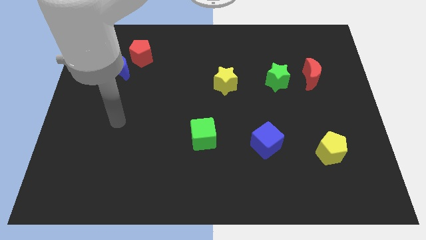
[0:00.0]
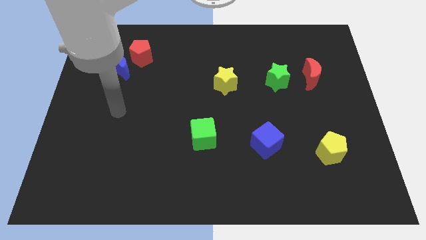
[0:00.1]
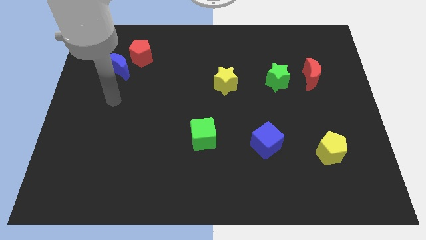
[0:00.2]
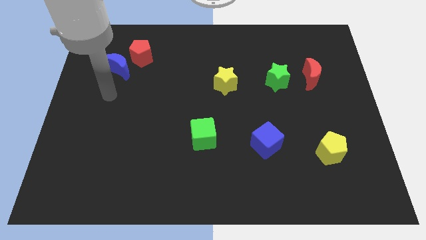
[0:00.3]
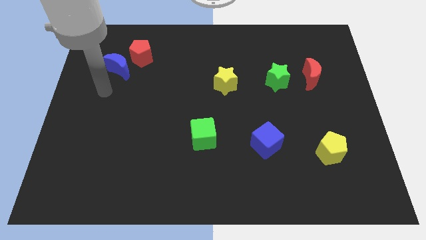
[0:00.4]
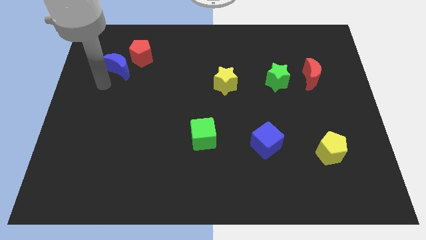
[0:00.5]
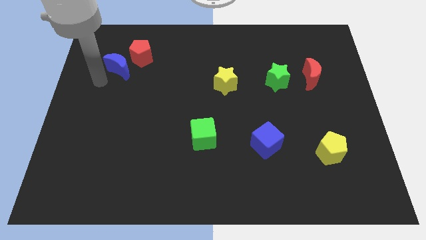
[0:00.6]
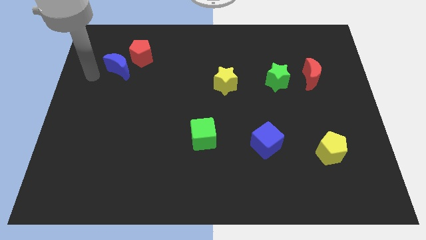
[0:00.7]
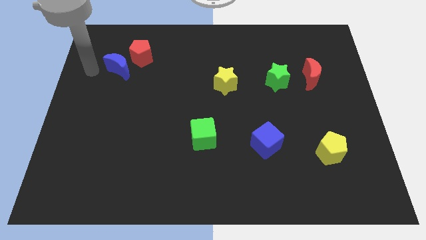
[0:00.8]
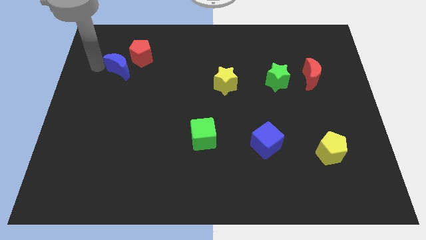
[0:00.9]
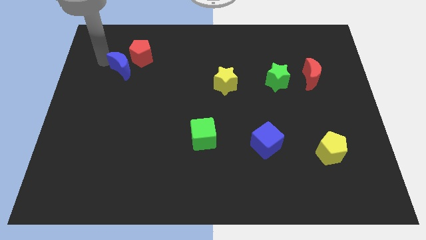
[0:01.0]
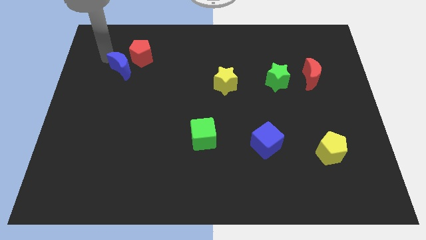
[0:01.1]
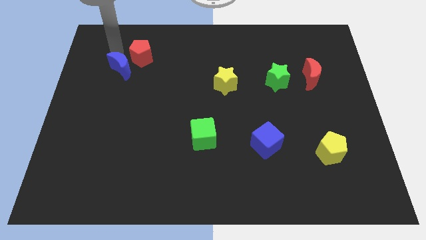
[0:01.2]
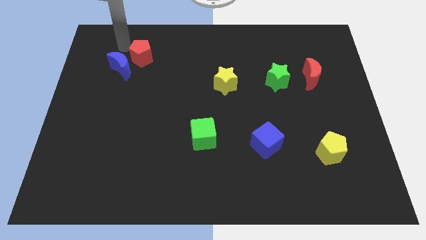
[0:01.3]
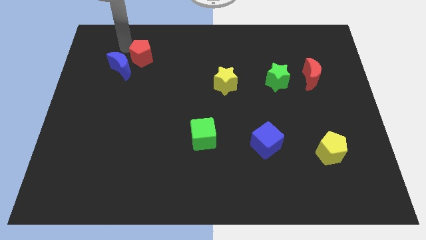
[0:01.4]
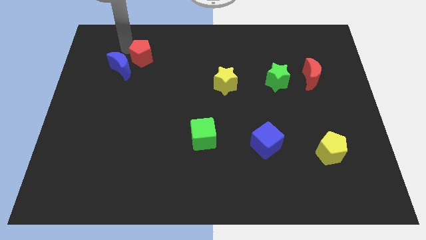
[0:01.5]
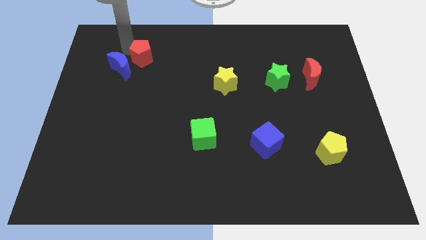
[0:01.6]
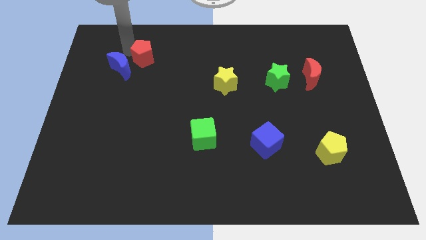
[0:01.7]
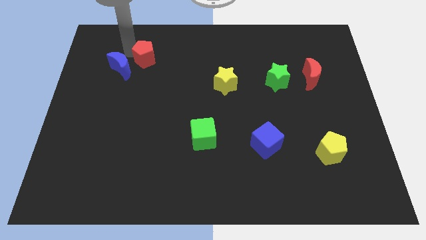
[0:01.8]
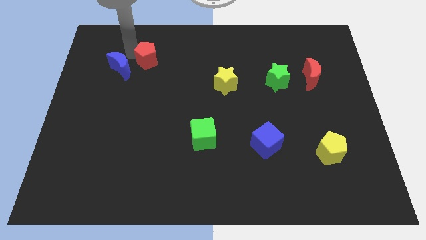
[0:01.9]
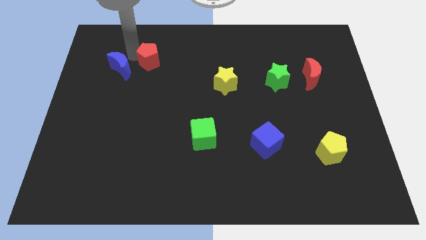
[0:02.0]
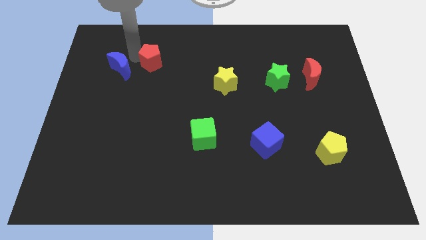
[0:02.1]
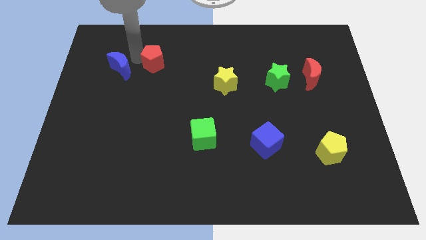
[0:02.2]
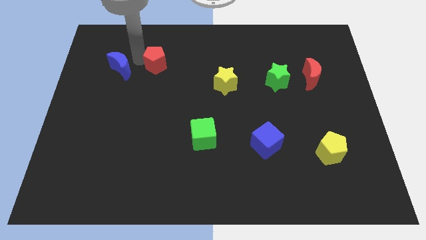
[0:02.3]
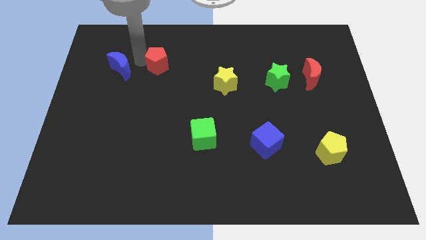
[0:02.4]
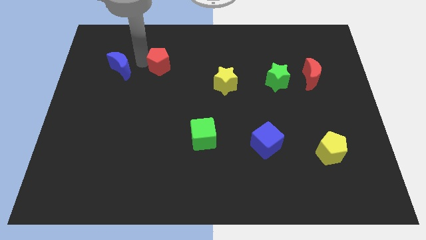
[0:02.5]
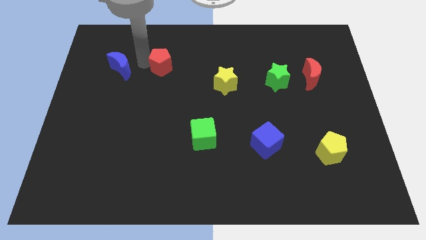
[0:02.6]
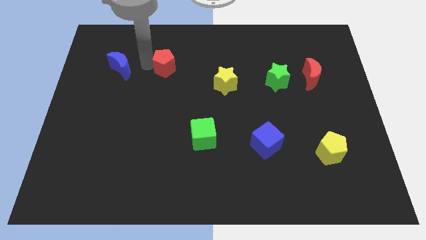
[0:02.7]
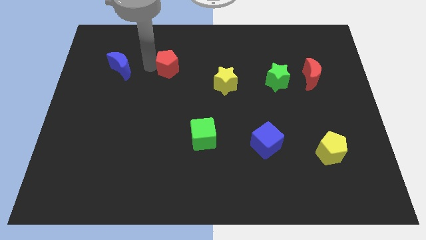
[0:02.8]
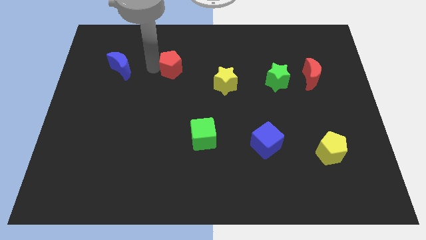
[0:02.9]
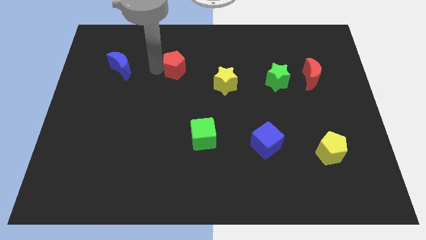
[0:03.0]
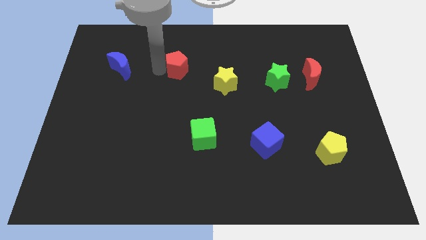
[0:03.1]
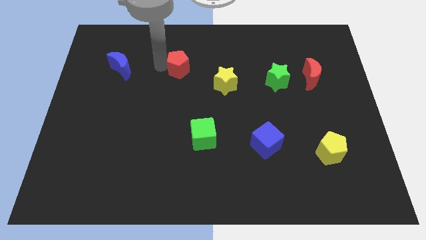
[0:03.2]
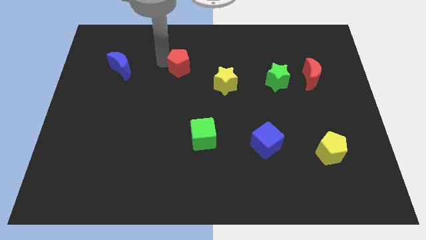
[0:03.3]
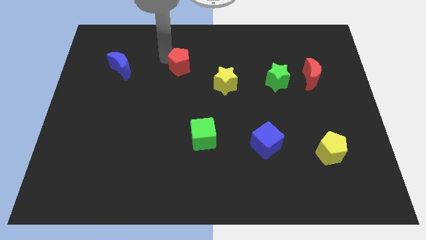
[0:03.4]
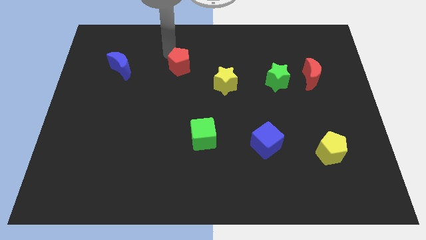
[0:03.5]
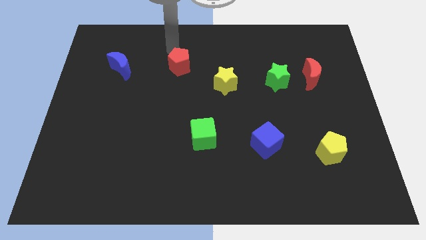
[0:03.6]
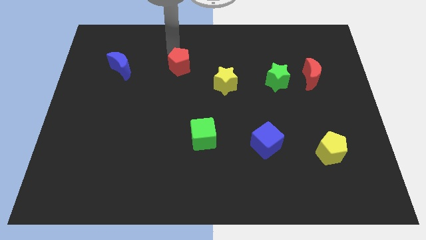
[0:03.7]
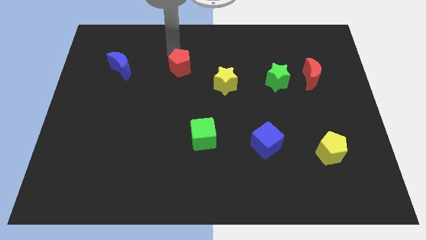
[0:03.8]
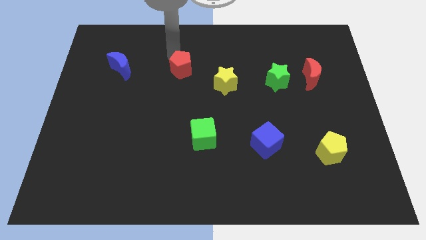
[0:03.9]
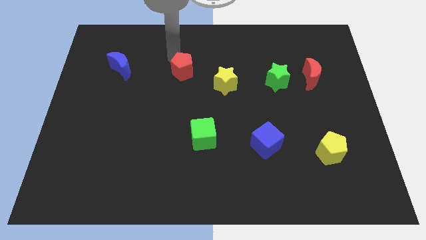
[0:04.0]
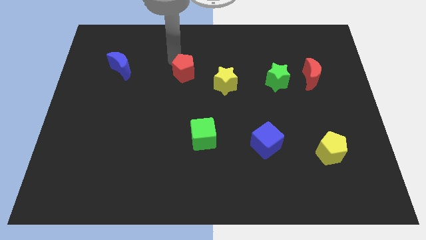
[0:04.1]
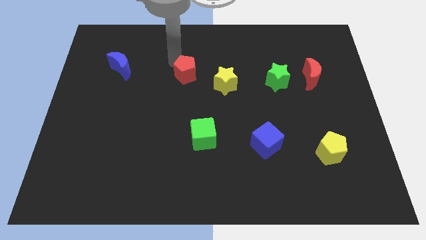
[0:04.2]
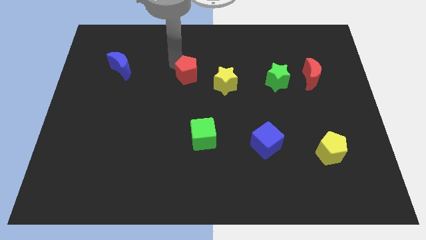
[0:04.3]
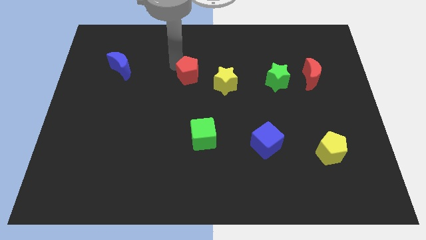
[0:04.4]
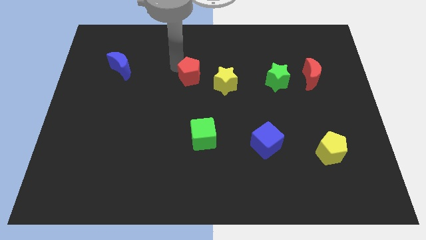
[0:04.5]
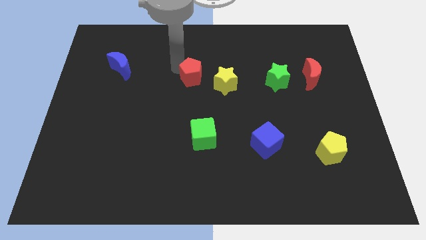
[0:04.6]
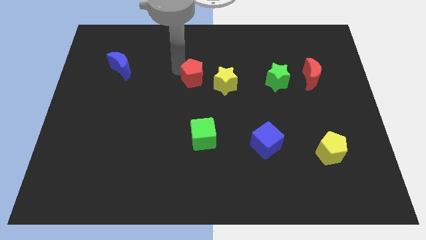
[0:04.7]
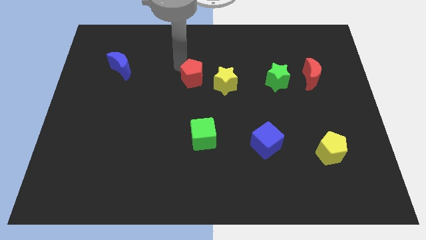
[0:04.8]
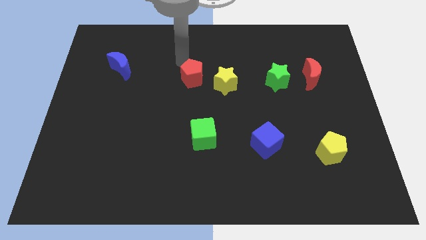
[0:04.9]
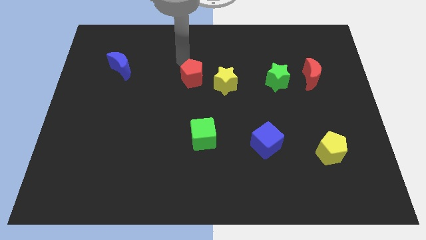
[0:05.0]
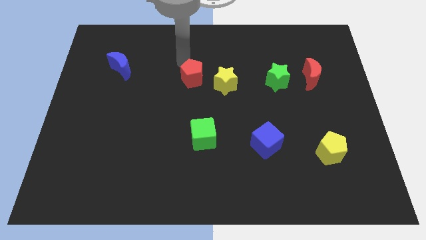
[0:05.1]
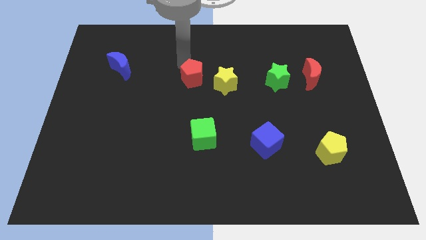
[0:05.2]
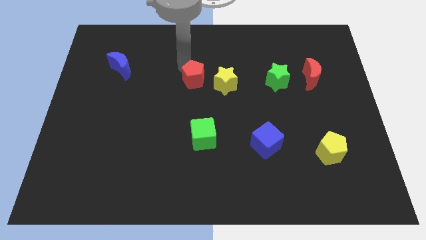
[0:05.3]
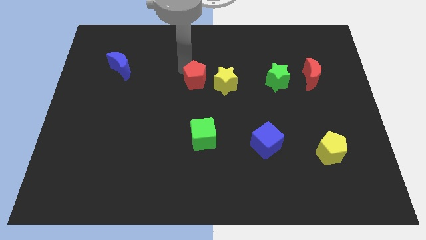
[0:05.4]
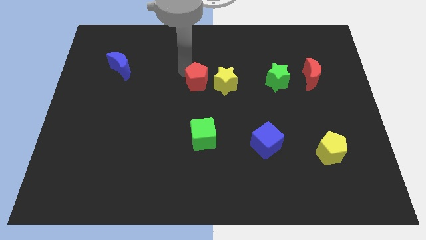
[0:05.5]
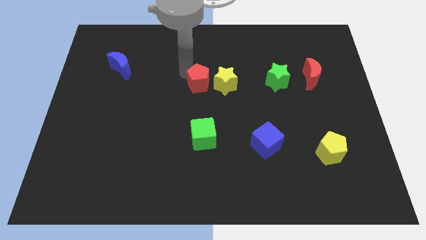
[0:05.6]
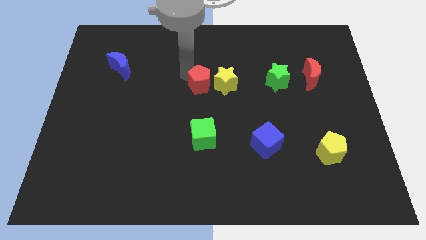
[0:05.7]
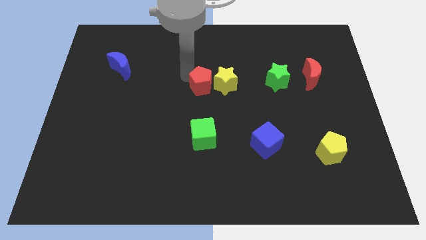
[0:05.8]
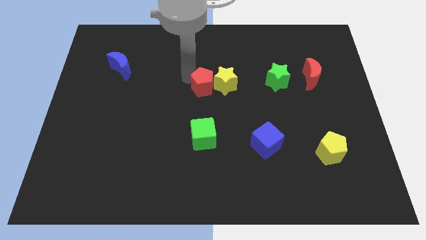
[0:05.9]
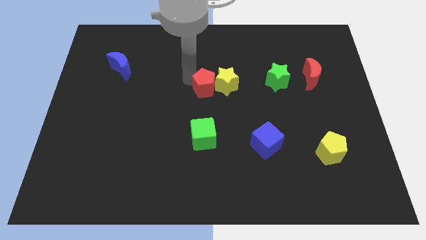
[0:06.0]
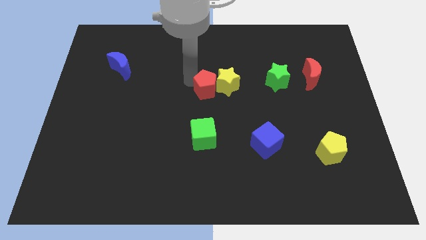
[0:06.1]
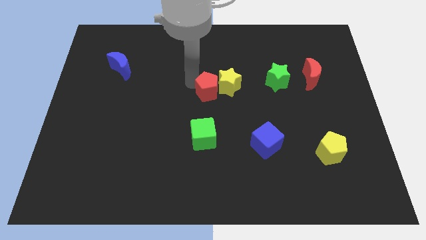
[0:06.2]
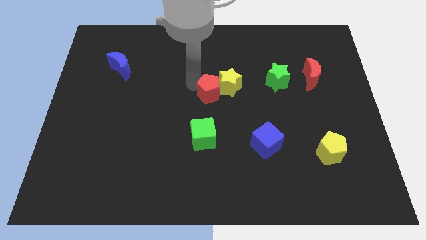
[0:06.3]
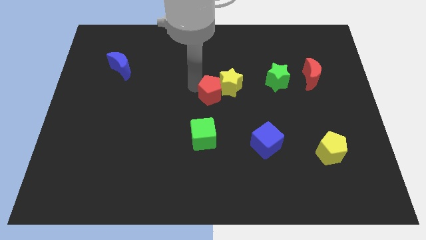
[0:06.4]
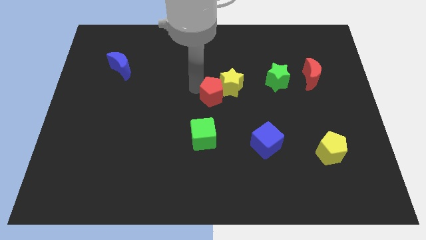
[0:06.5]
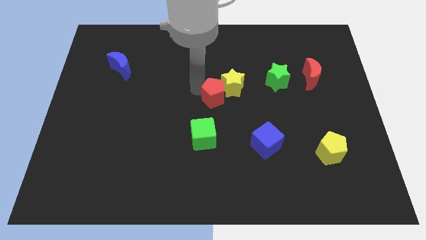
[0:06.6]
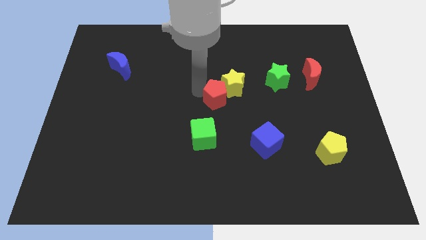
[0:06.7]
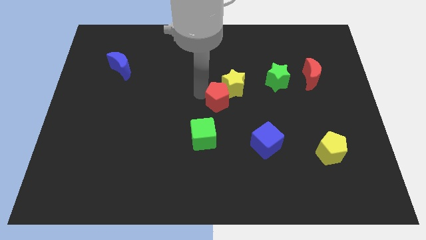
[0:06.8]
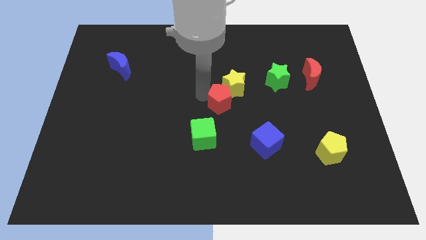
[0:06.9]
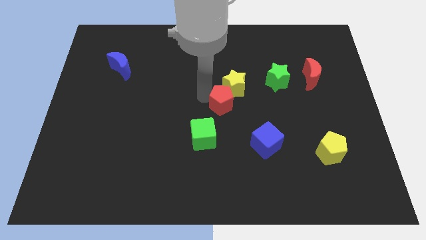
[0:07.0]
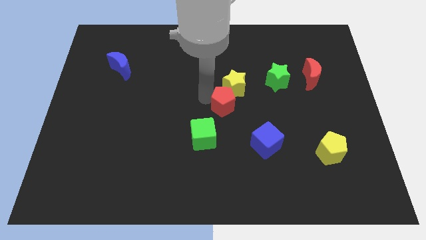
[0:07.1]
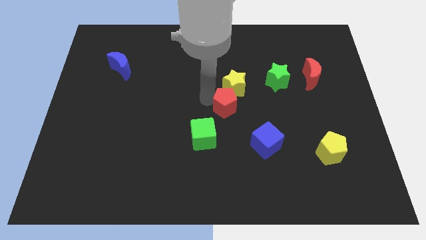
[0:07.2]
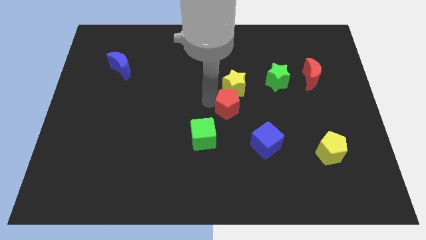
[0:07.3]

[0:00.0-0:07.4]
move the red pentagon diagonally up and to the left of the blue cube
